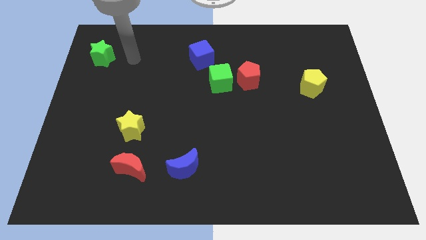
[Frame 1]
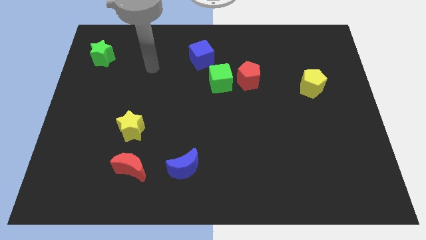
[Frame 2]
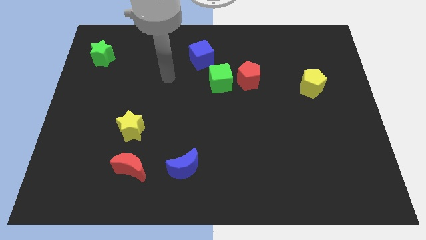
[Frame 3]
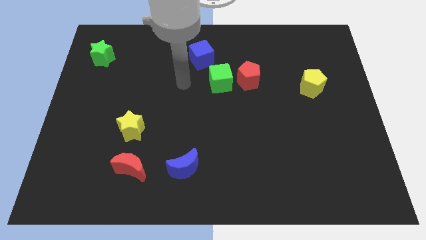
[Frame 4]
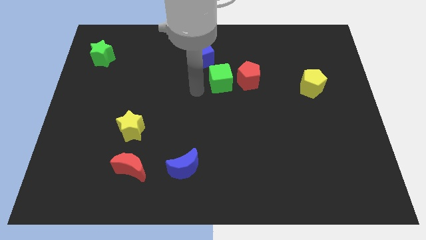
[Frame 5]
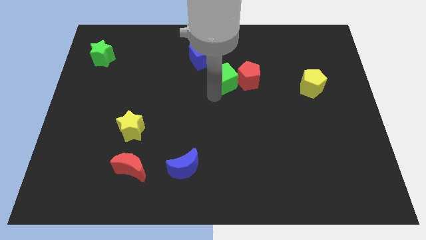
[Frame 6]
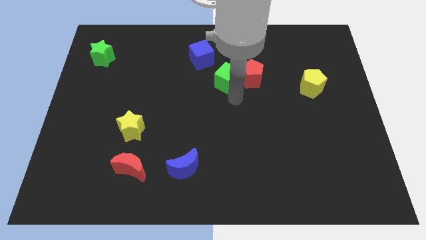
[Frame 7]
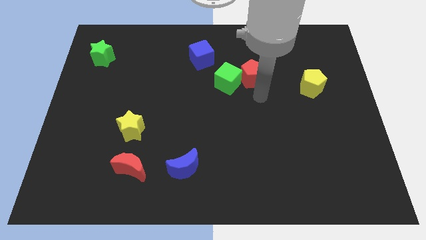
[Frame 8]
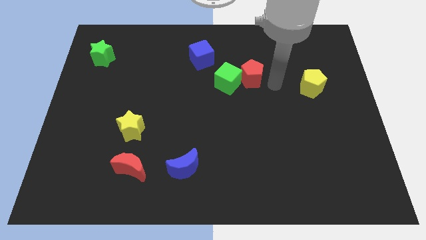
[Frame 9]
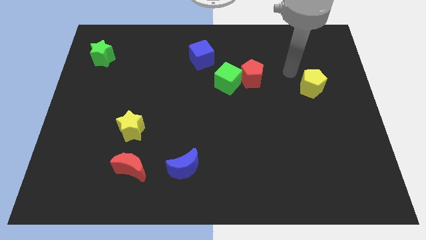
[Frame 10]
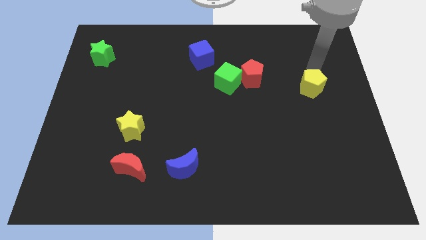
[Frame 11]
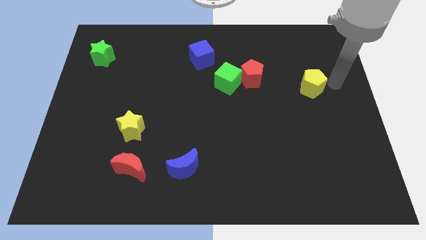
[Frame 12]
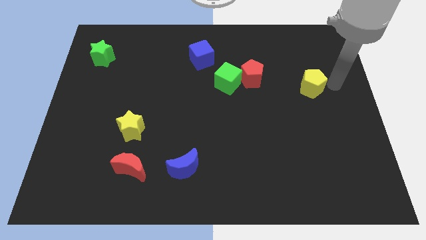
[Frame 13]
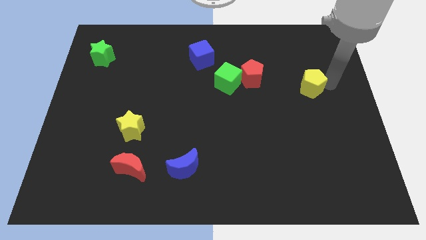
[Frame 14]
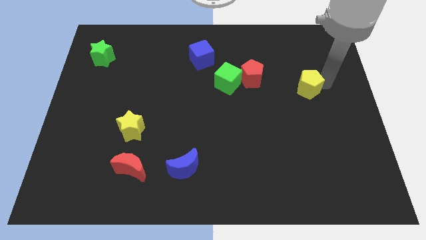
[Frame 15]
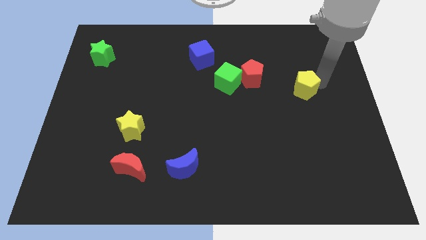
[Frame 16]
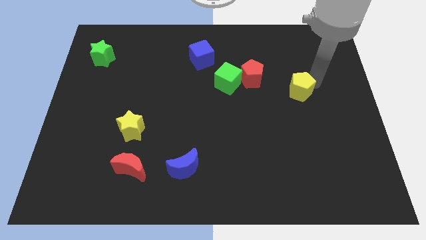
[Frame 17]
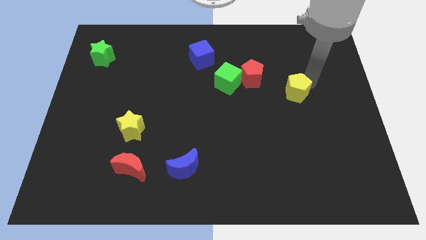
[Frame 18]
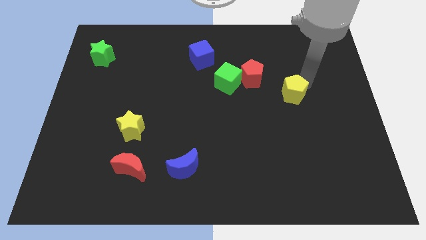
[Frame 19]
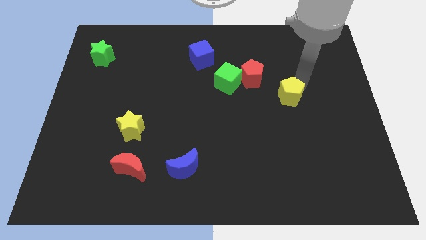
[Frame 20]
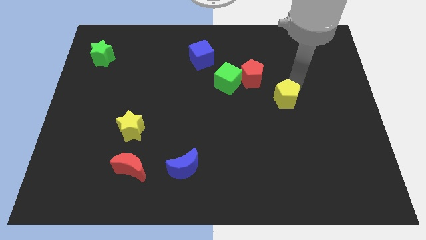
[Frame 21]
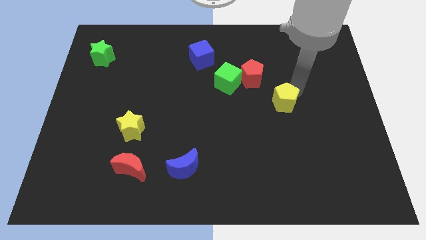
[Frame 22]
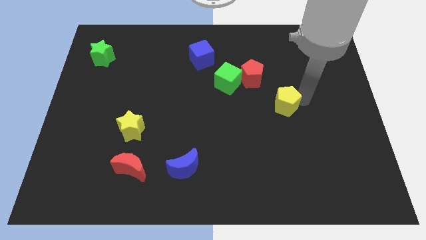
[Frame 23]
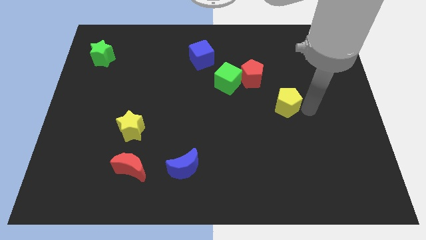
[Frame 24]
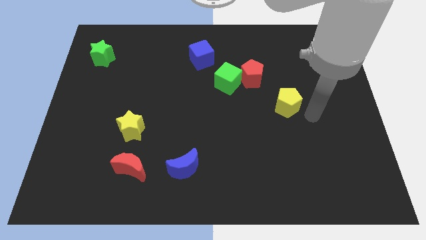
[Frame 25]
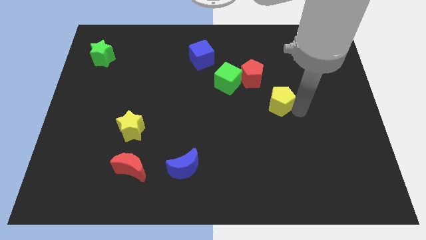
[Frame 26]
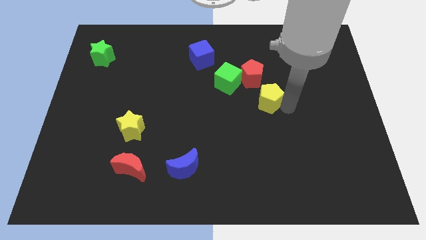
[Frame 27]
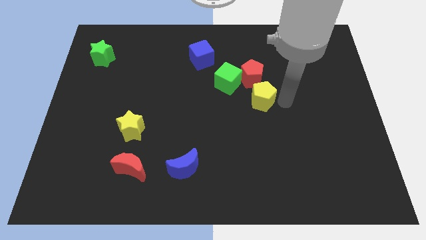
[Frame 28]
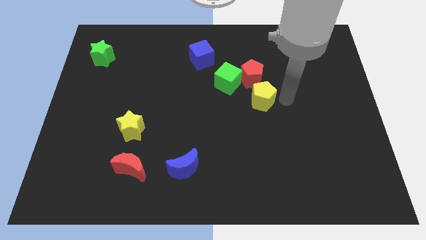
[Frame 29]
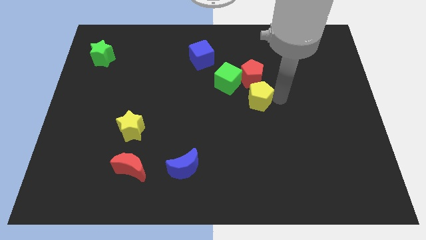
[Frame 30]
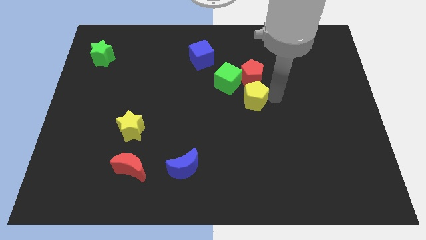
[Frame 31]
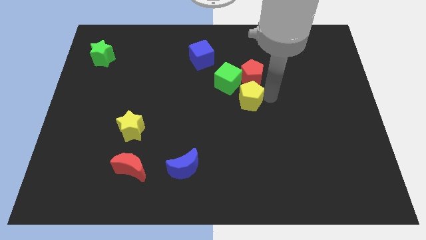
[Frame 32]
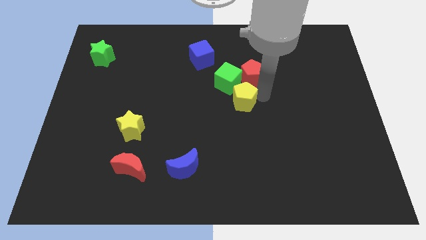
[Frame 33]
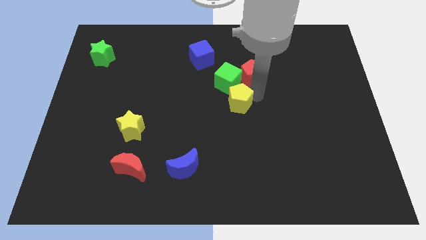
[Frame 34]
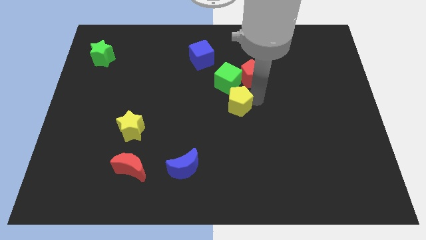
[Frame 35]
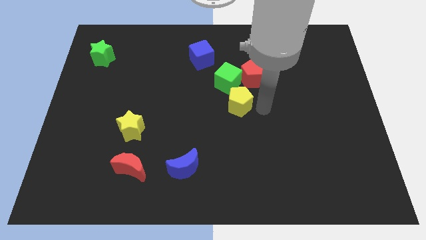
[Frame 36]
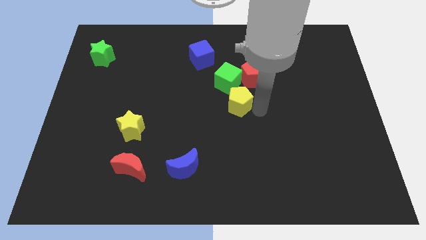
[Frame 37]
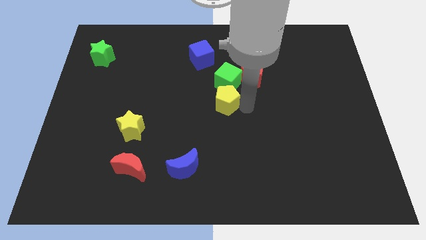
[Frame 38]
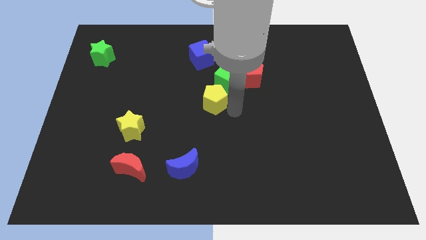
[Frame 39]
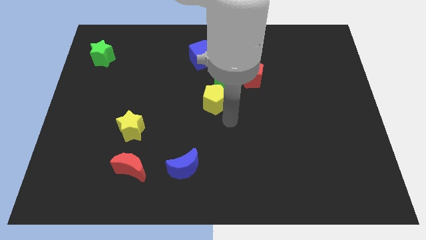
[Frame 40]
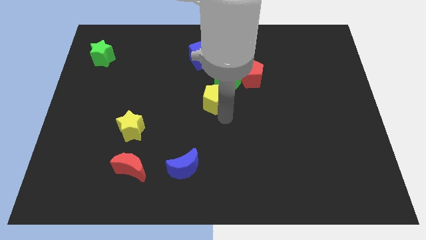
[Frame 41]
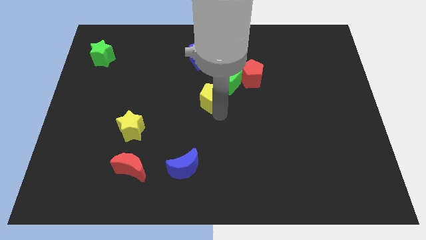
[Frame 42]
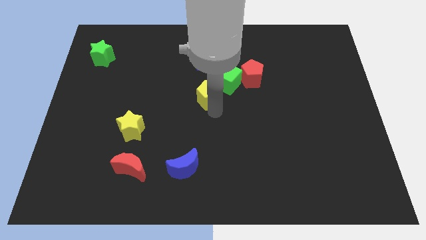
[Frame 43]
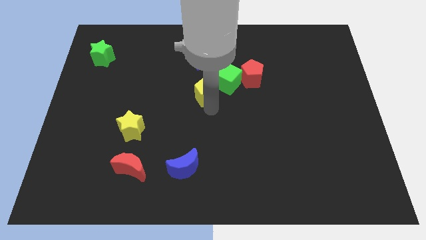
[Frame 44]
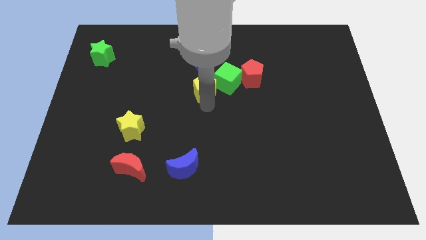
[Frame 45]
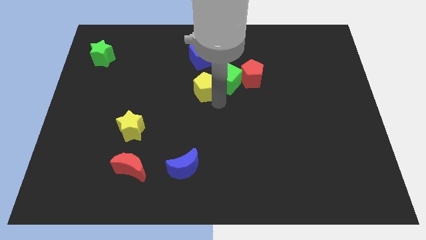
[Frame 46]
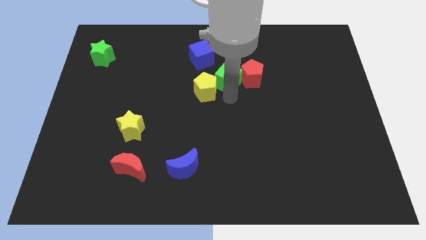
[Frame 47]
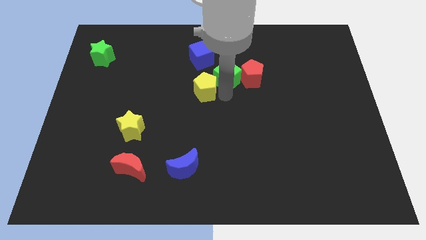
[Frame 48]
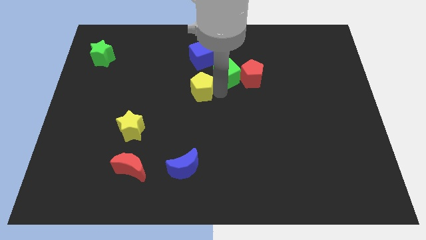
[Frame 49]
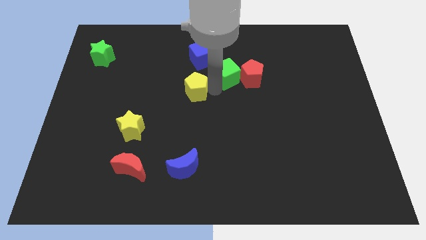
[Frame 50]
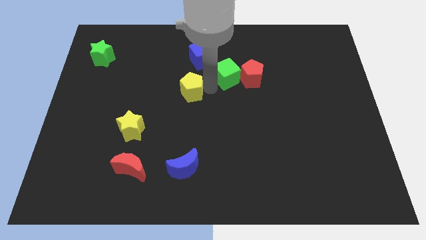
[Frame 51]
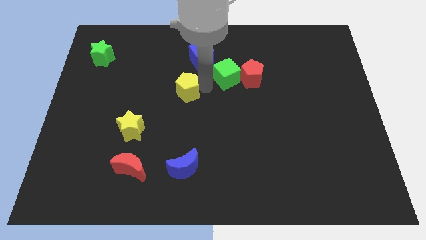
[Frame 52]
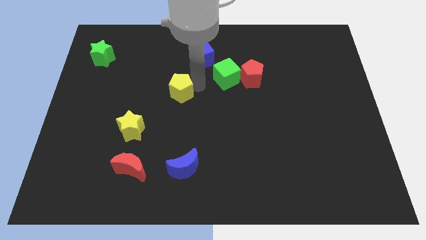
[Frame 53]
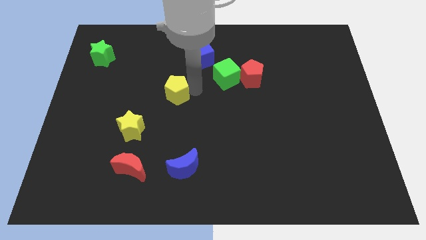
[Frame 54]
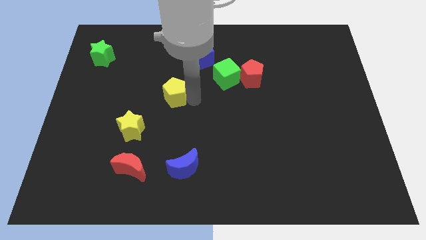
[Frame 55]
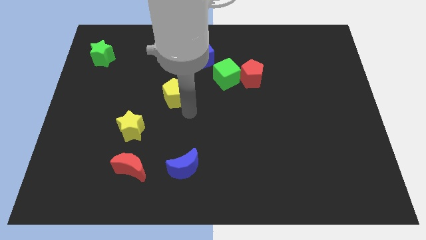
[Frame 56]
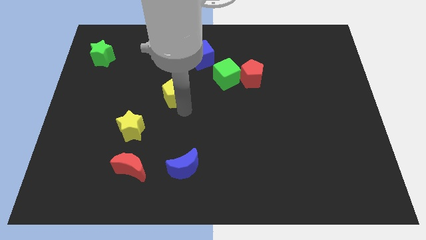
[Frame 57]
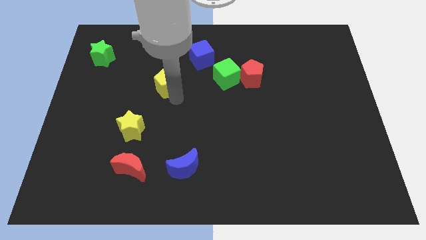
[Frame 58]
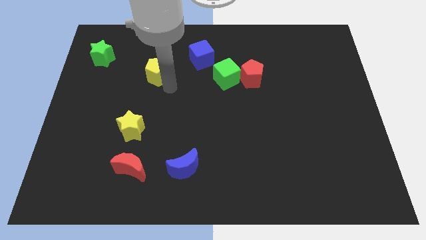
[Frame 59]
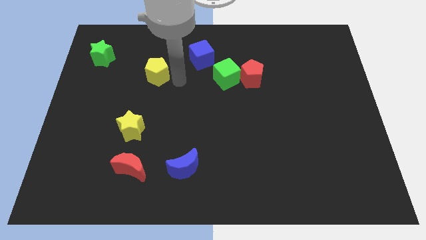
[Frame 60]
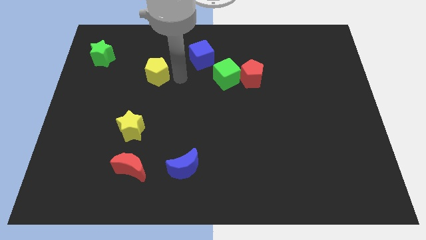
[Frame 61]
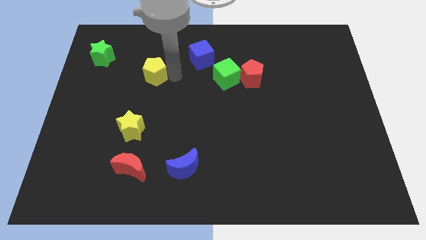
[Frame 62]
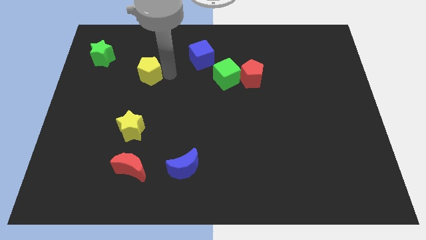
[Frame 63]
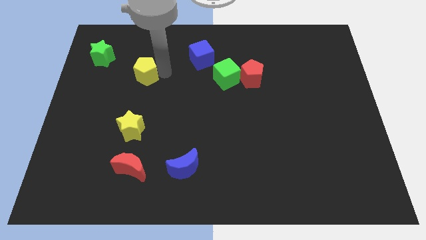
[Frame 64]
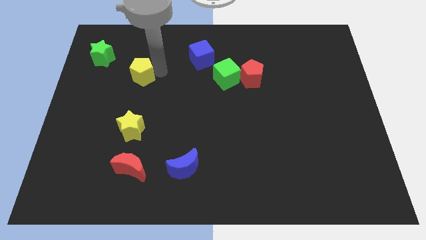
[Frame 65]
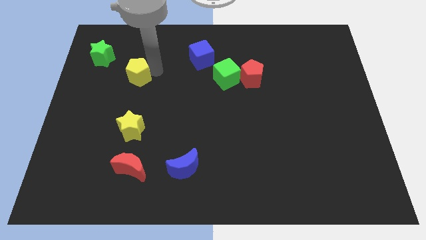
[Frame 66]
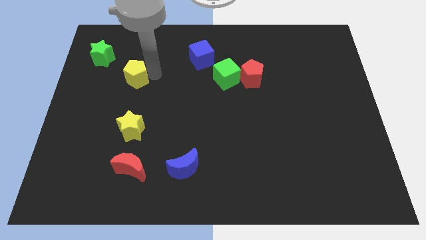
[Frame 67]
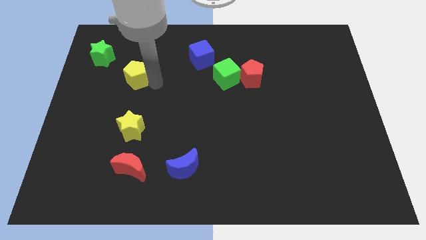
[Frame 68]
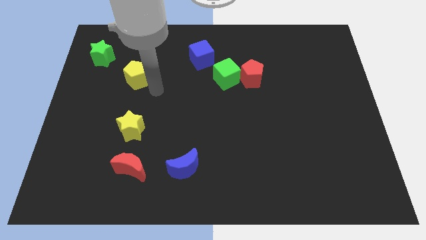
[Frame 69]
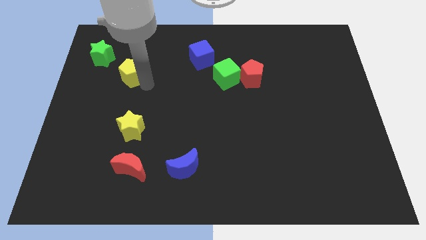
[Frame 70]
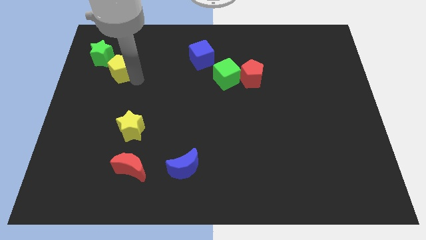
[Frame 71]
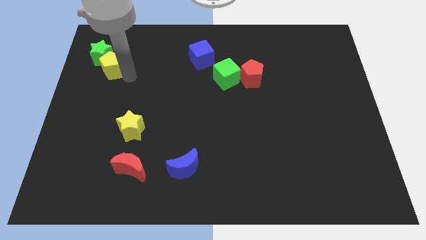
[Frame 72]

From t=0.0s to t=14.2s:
put the yellow pentagon next to the green star
